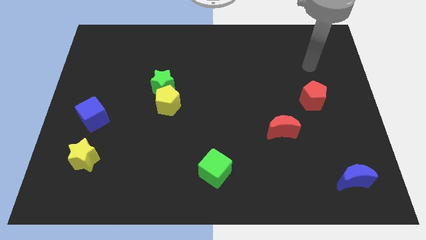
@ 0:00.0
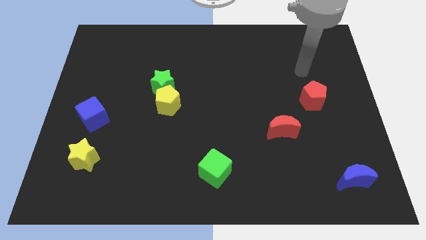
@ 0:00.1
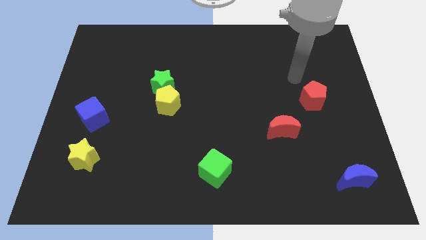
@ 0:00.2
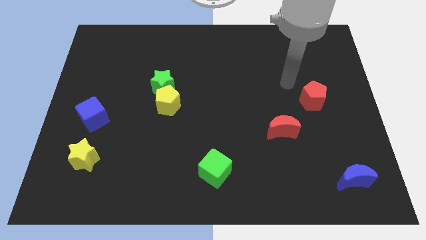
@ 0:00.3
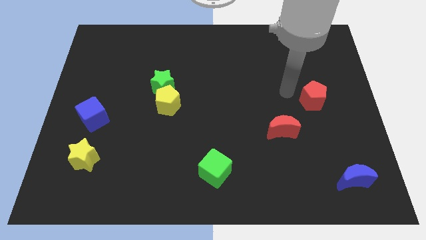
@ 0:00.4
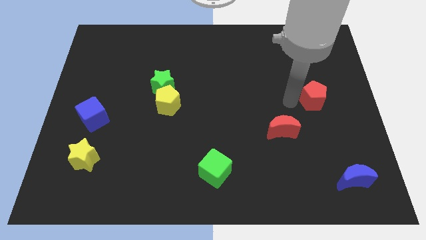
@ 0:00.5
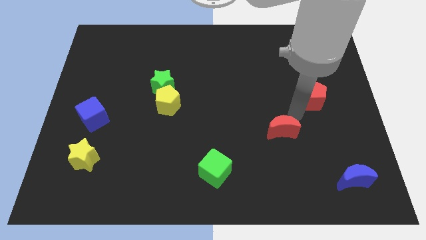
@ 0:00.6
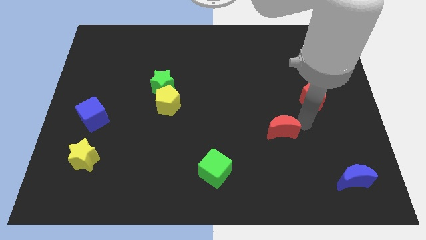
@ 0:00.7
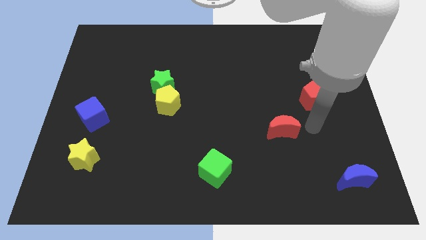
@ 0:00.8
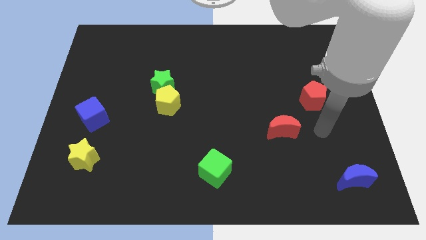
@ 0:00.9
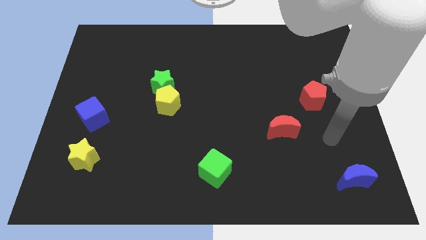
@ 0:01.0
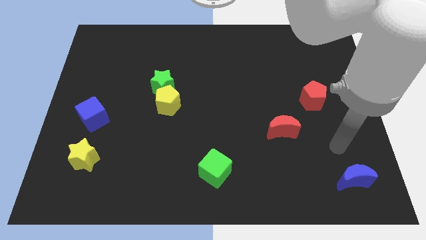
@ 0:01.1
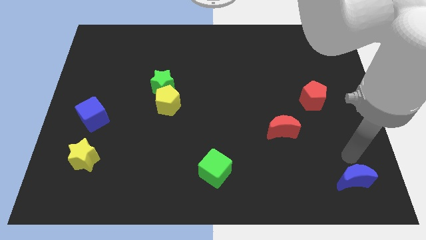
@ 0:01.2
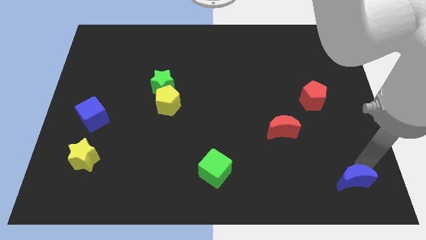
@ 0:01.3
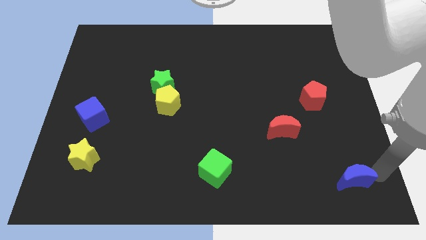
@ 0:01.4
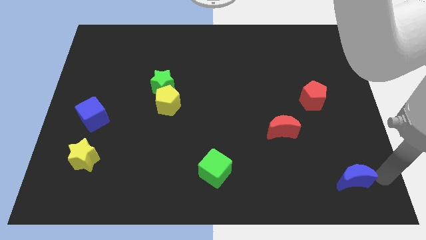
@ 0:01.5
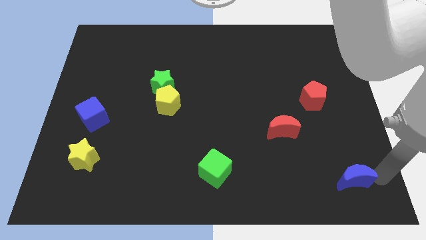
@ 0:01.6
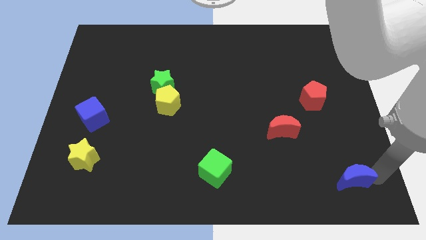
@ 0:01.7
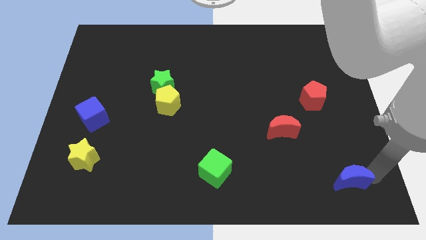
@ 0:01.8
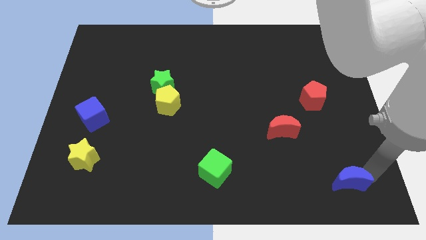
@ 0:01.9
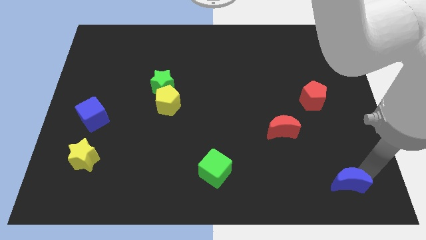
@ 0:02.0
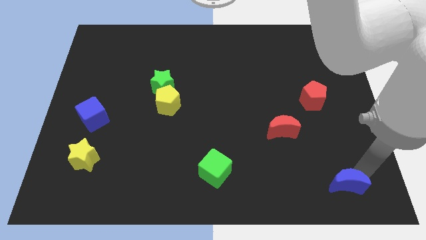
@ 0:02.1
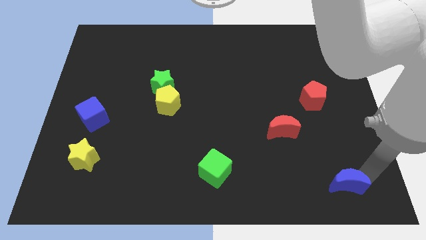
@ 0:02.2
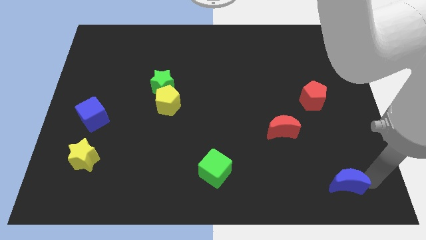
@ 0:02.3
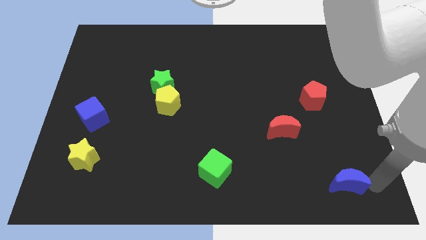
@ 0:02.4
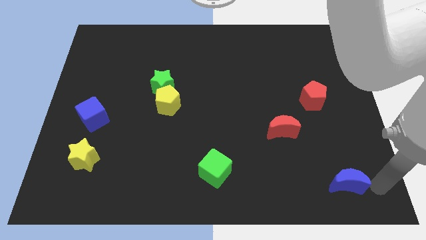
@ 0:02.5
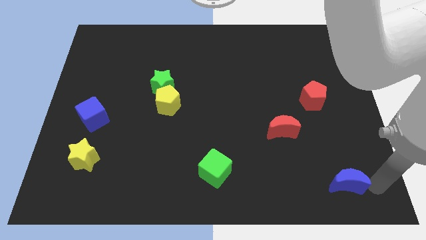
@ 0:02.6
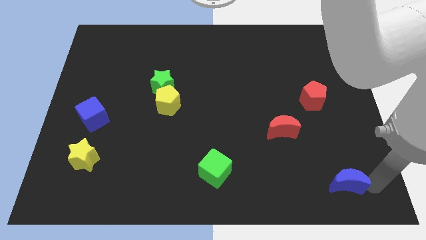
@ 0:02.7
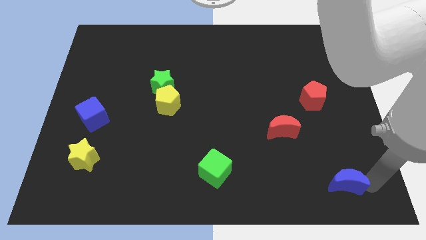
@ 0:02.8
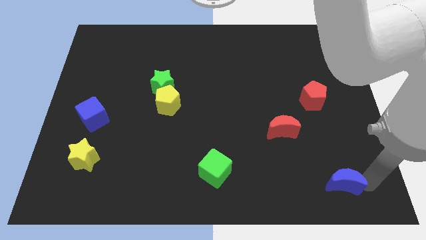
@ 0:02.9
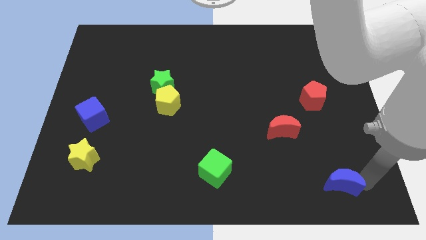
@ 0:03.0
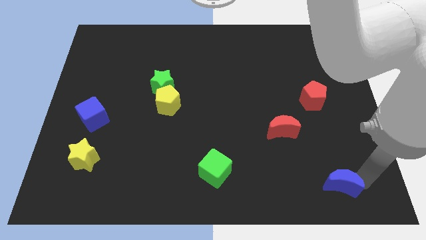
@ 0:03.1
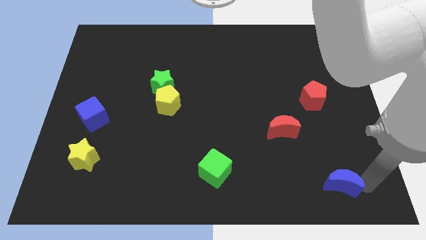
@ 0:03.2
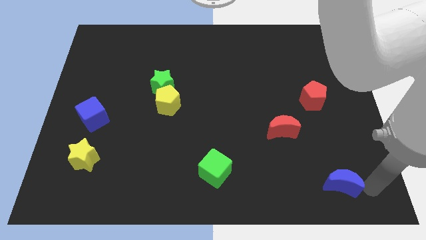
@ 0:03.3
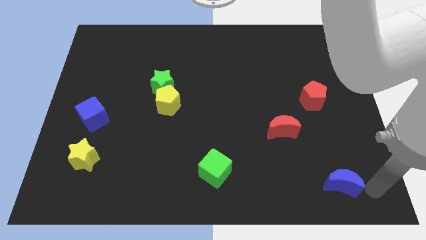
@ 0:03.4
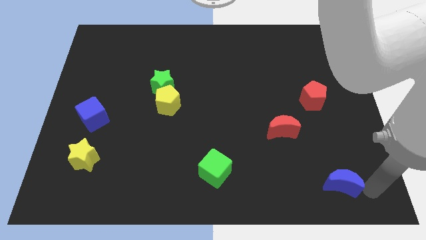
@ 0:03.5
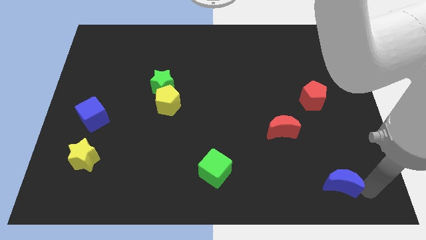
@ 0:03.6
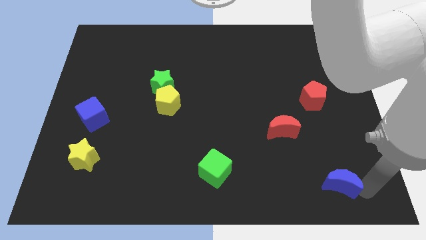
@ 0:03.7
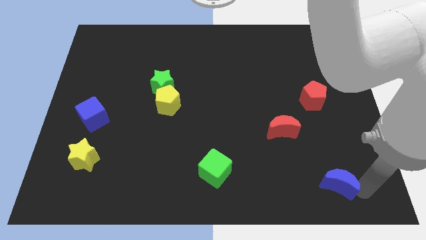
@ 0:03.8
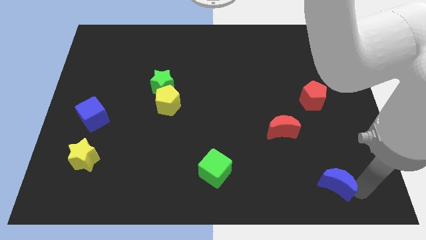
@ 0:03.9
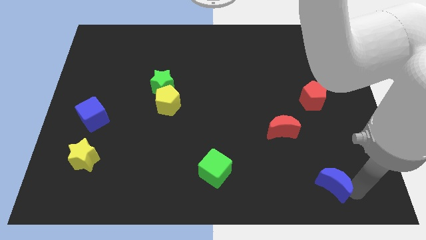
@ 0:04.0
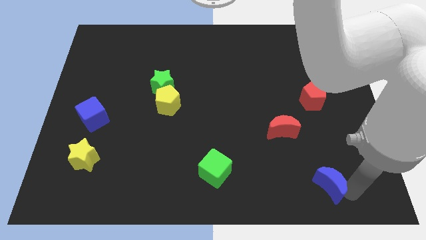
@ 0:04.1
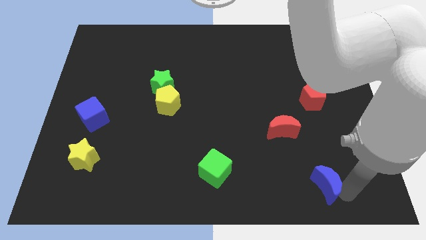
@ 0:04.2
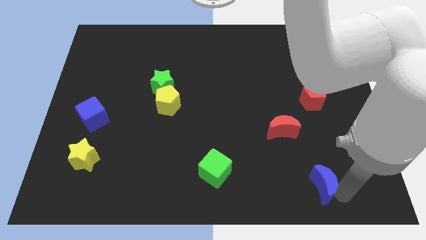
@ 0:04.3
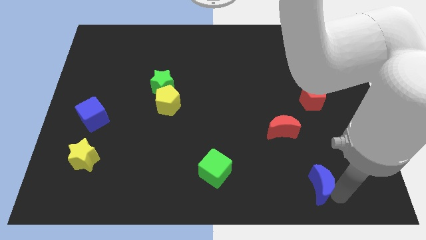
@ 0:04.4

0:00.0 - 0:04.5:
move the blue moon left slightly

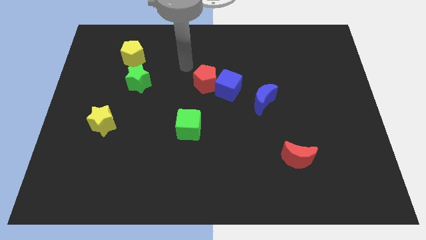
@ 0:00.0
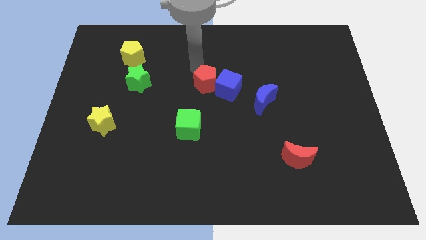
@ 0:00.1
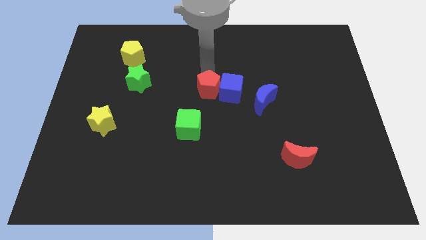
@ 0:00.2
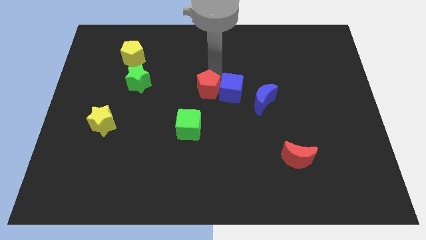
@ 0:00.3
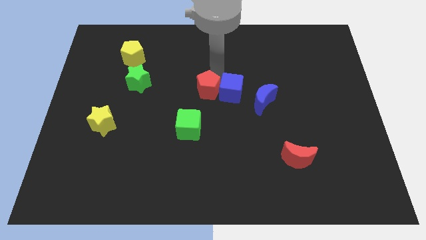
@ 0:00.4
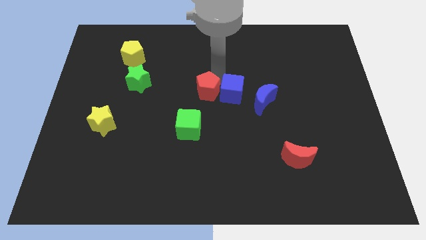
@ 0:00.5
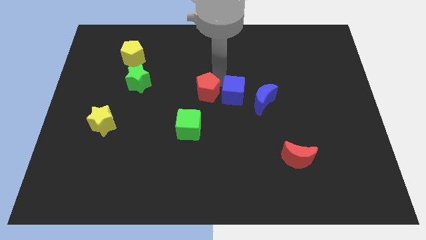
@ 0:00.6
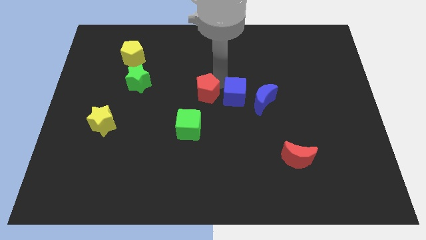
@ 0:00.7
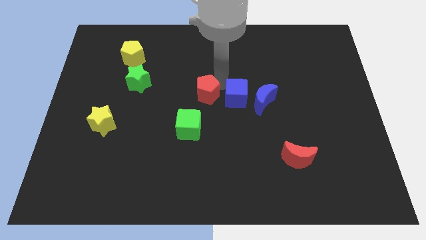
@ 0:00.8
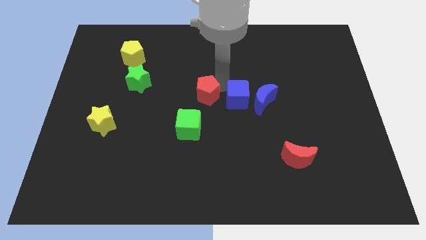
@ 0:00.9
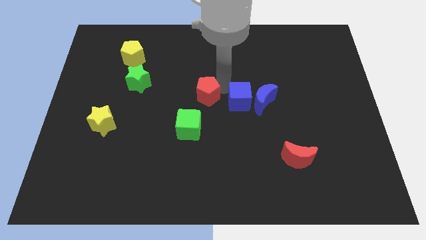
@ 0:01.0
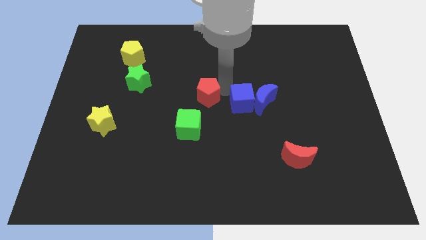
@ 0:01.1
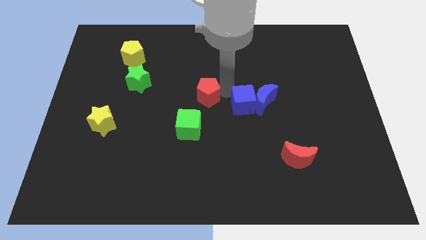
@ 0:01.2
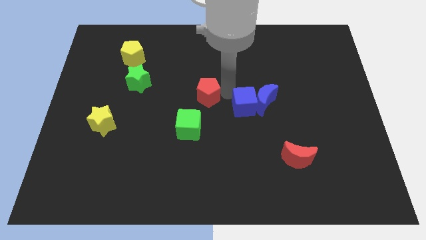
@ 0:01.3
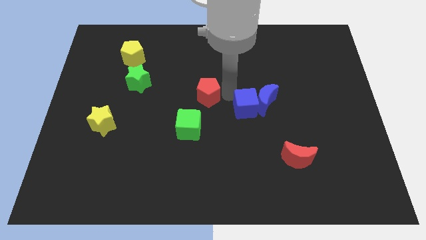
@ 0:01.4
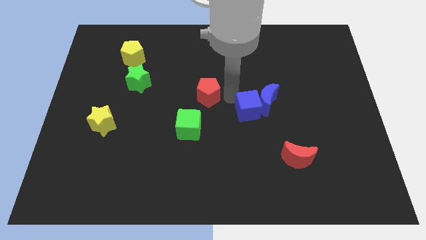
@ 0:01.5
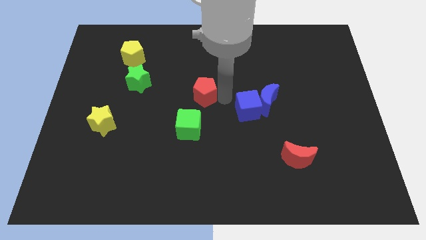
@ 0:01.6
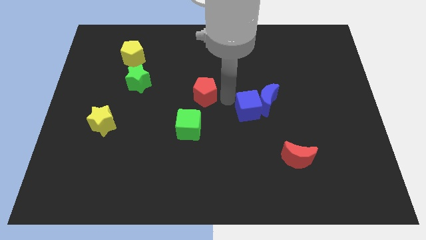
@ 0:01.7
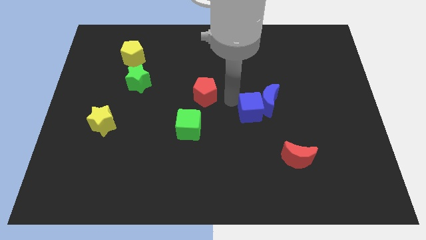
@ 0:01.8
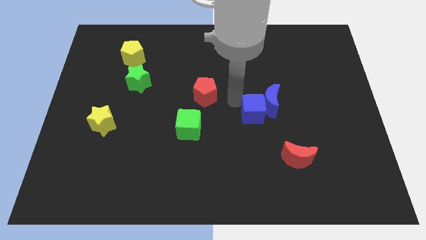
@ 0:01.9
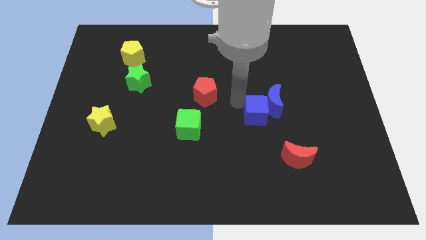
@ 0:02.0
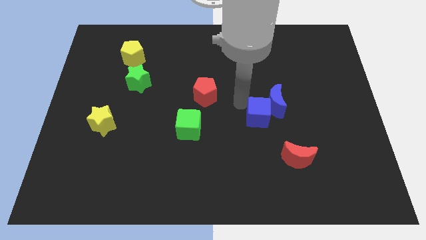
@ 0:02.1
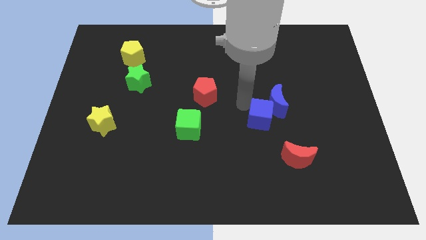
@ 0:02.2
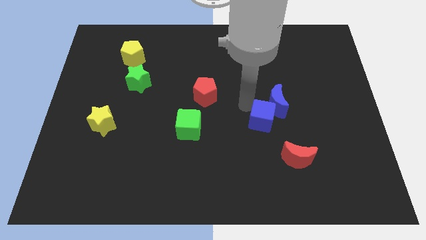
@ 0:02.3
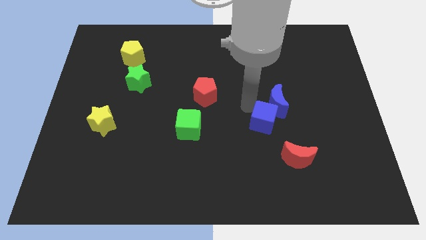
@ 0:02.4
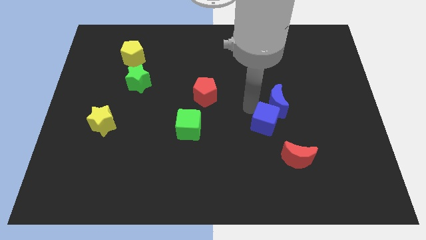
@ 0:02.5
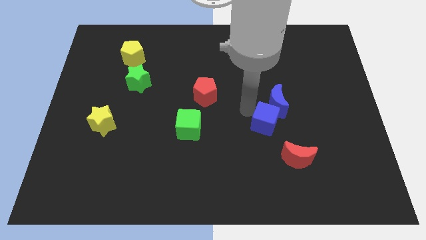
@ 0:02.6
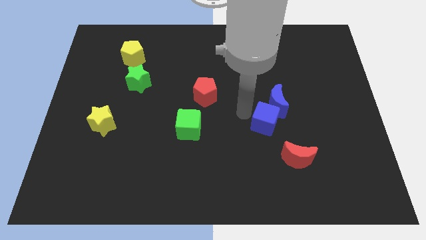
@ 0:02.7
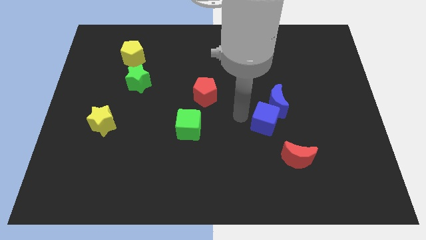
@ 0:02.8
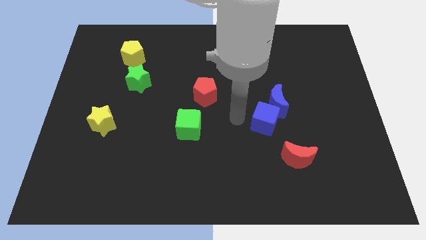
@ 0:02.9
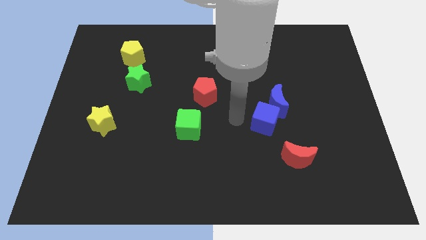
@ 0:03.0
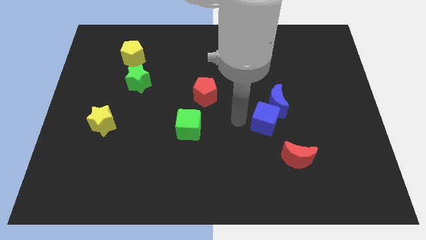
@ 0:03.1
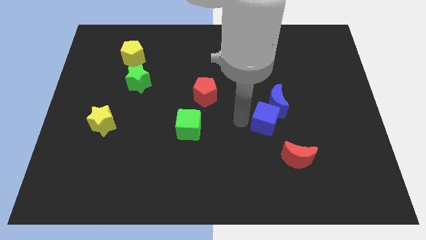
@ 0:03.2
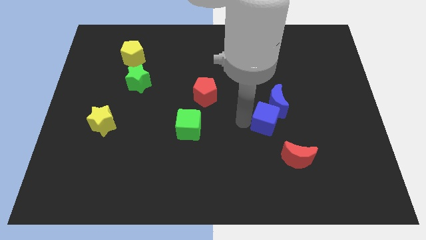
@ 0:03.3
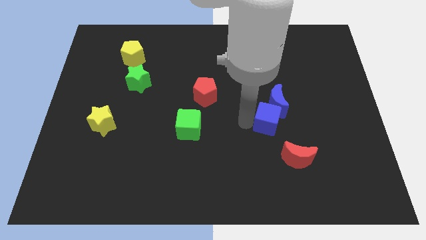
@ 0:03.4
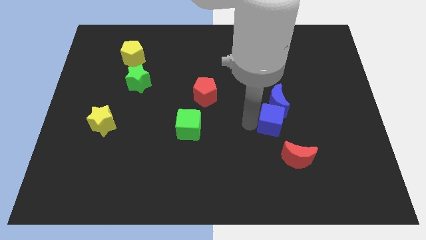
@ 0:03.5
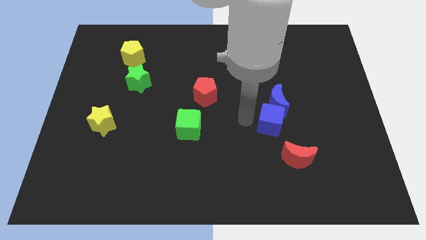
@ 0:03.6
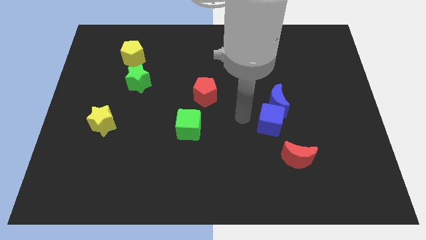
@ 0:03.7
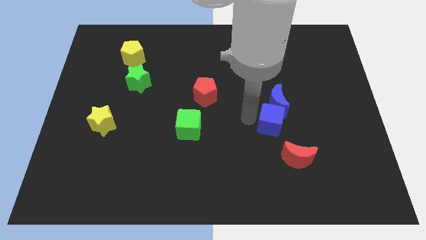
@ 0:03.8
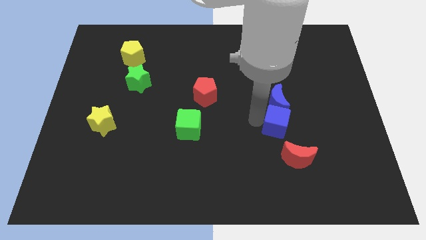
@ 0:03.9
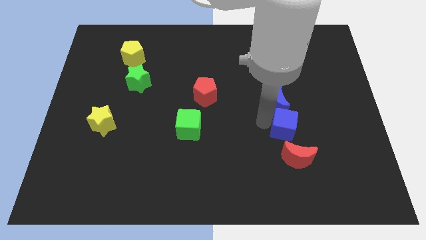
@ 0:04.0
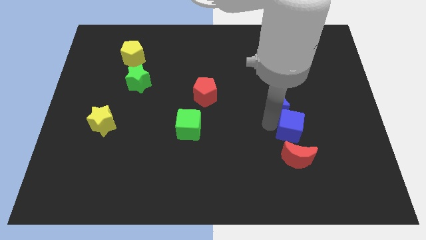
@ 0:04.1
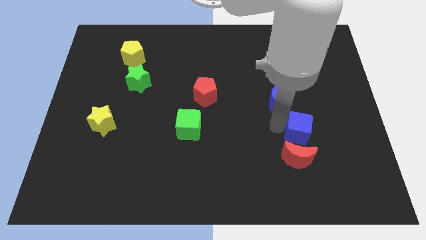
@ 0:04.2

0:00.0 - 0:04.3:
move the blue cube diagonally down and to the right
